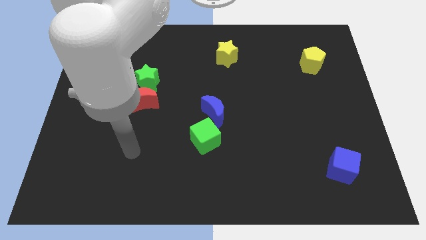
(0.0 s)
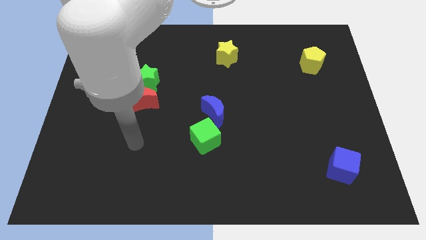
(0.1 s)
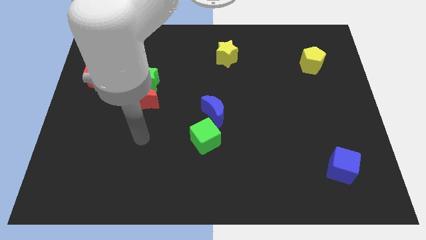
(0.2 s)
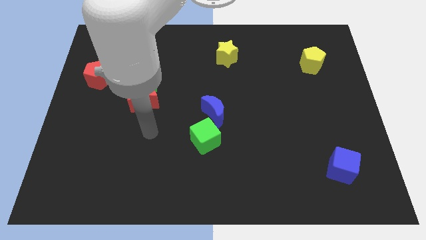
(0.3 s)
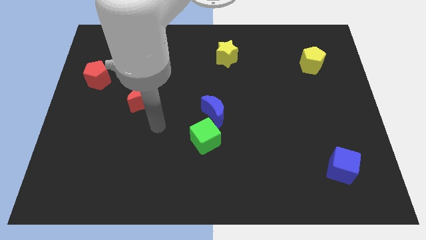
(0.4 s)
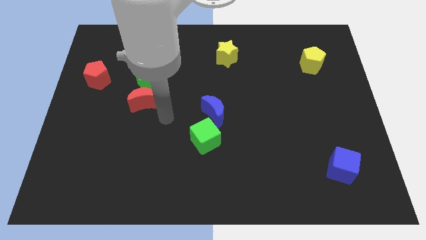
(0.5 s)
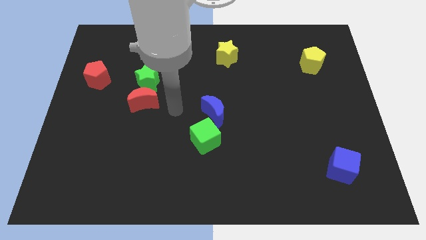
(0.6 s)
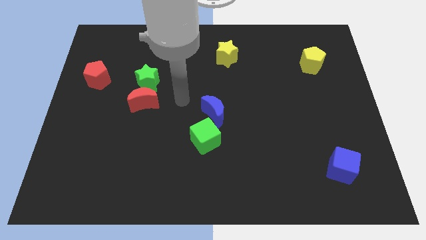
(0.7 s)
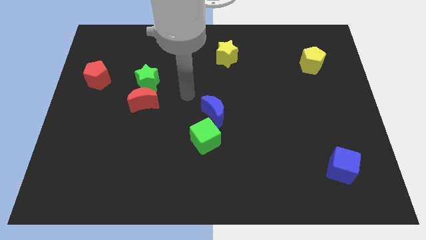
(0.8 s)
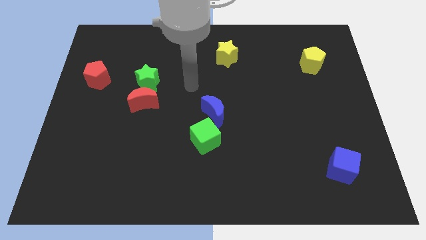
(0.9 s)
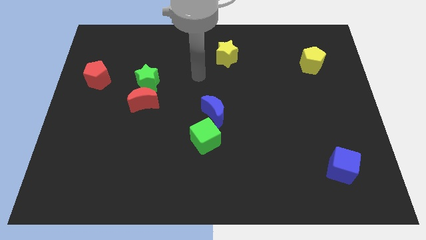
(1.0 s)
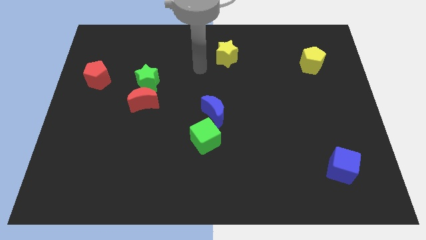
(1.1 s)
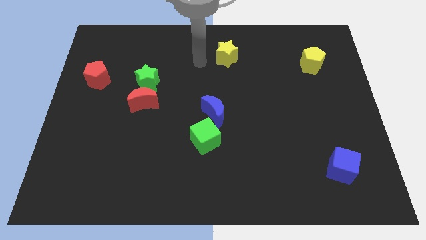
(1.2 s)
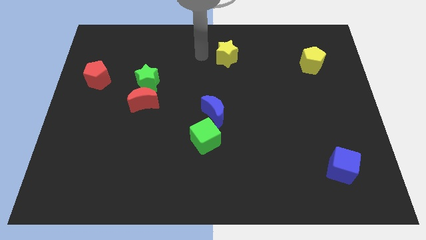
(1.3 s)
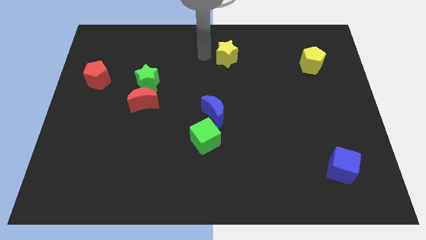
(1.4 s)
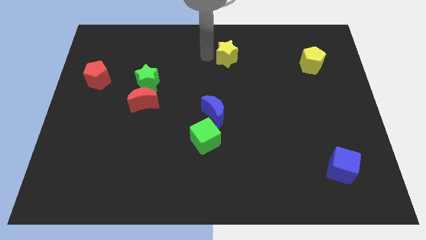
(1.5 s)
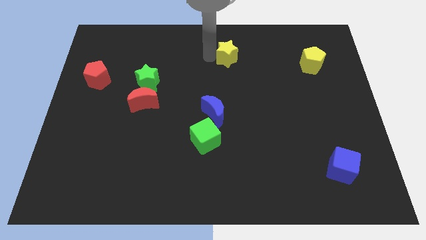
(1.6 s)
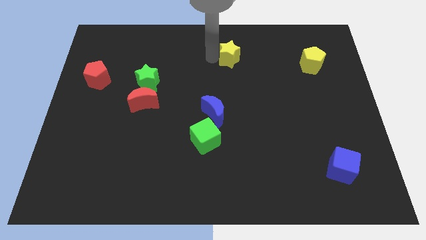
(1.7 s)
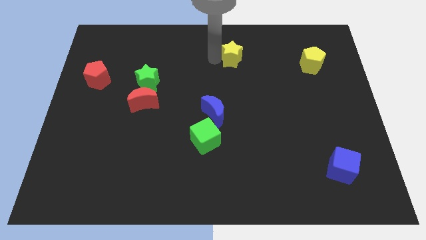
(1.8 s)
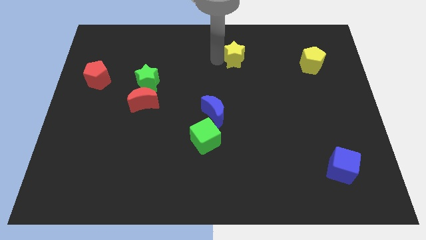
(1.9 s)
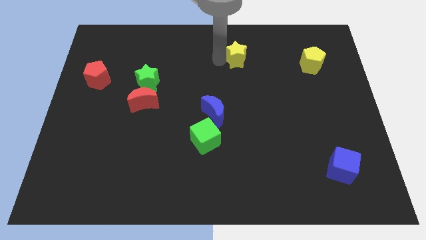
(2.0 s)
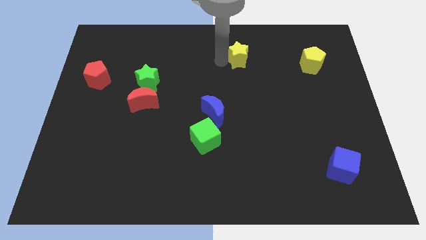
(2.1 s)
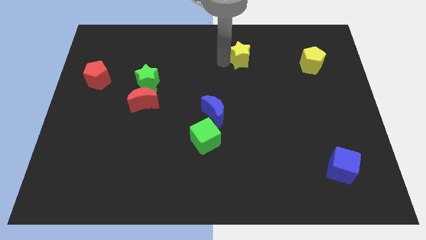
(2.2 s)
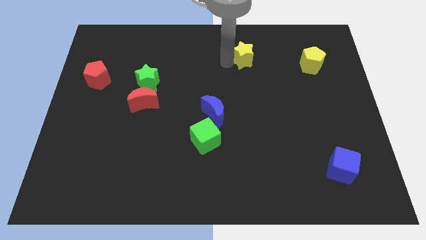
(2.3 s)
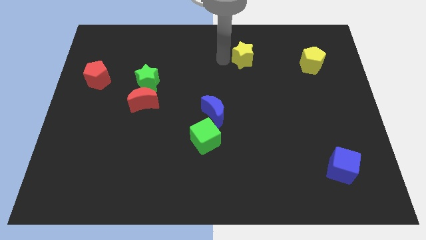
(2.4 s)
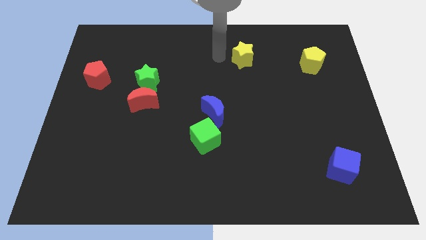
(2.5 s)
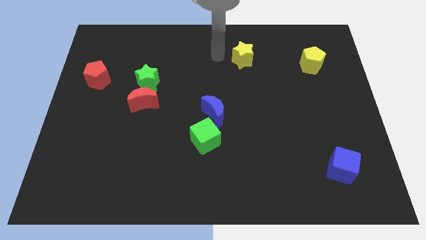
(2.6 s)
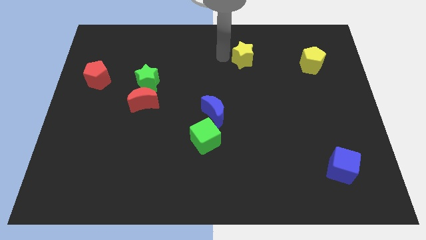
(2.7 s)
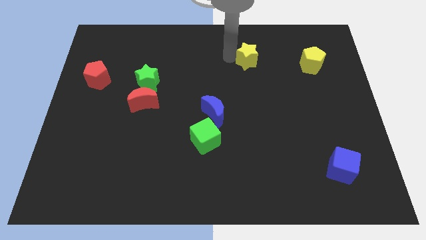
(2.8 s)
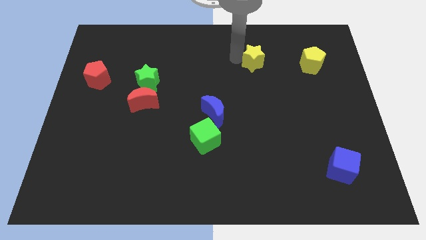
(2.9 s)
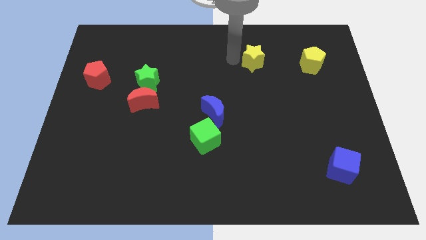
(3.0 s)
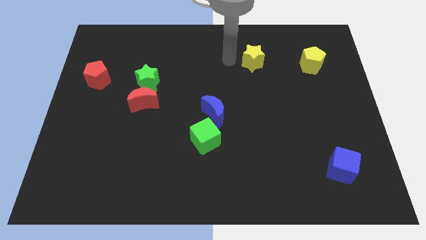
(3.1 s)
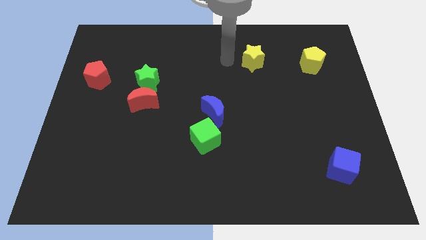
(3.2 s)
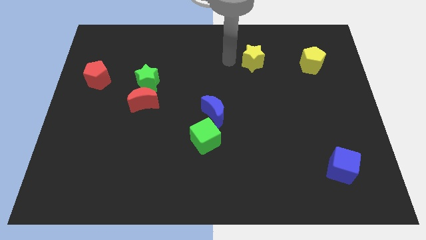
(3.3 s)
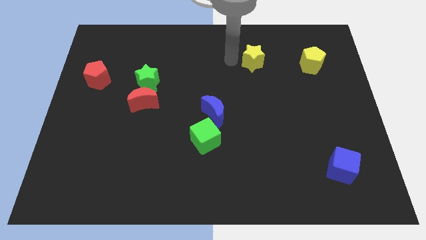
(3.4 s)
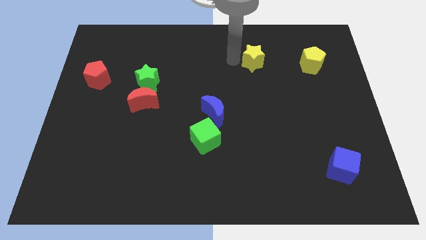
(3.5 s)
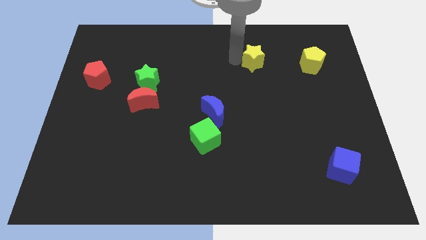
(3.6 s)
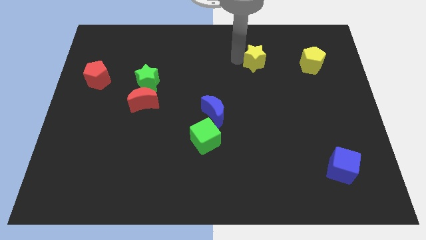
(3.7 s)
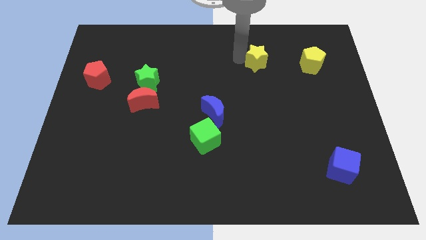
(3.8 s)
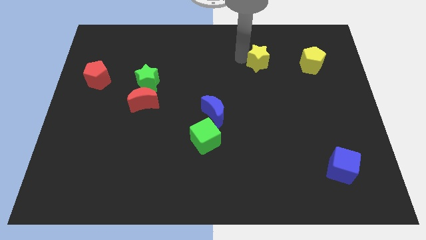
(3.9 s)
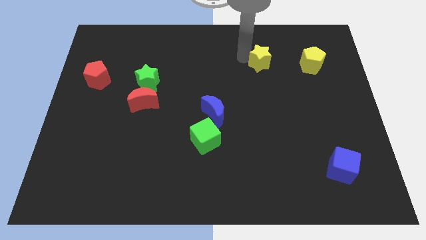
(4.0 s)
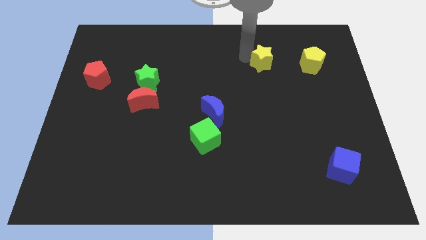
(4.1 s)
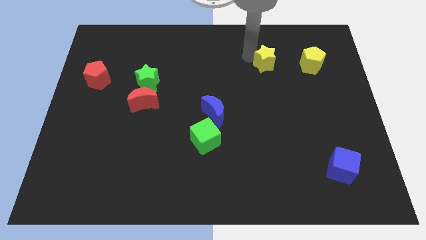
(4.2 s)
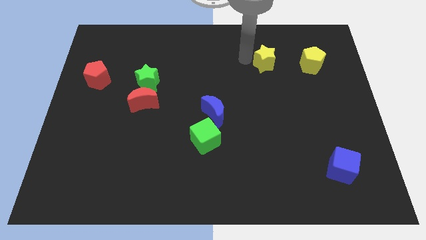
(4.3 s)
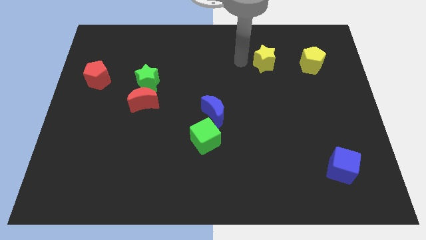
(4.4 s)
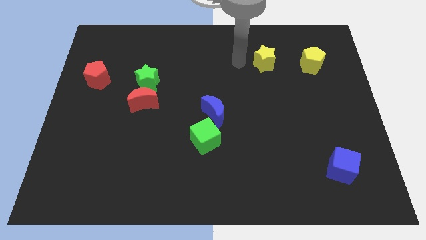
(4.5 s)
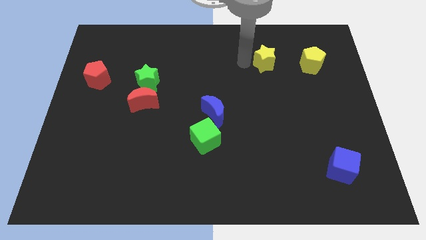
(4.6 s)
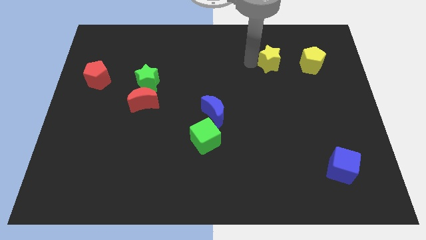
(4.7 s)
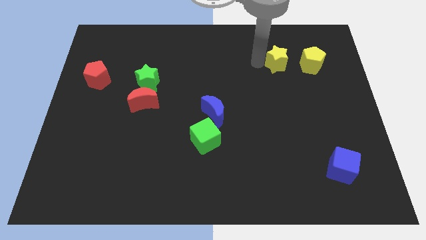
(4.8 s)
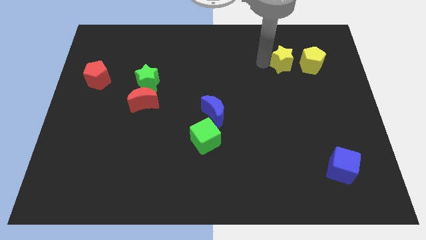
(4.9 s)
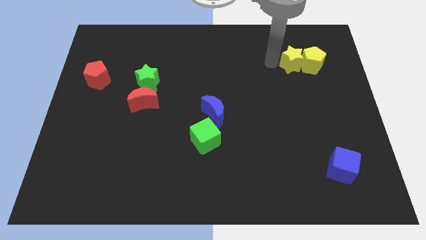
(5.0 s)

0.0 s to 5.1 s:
slide the yellow star towards the yellow pentagon

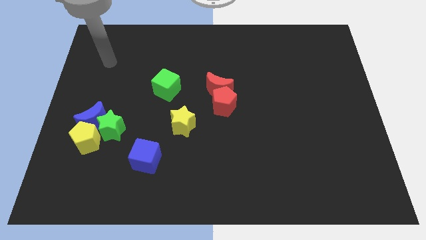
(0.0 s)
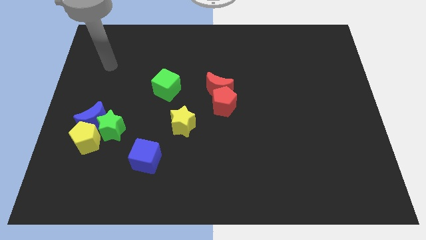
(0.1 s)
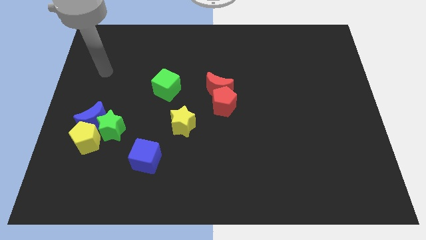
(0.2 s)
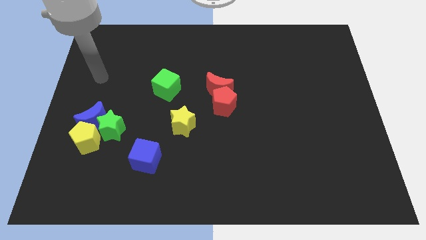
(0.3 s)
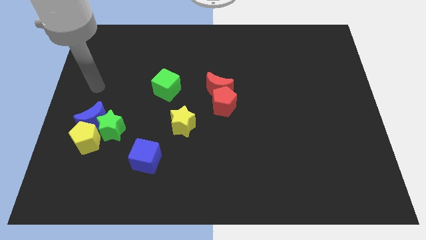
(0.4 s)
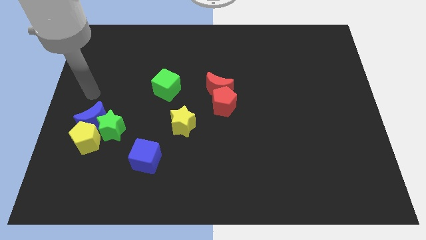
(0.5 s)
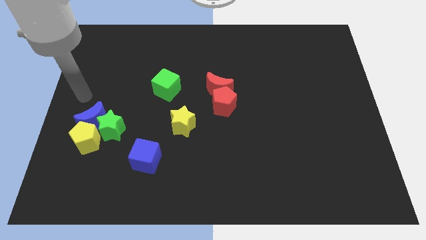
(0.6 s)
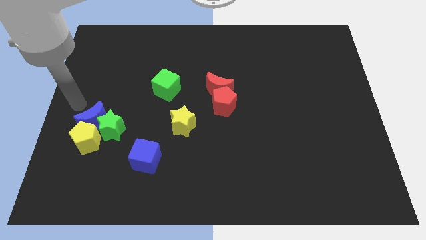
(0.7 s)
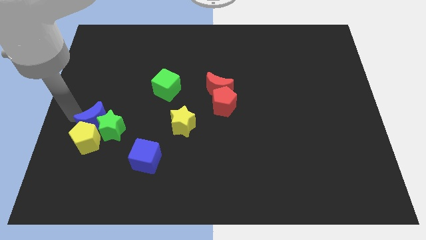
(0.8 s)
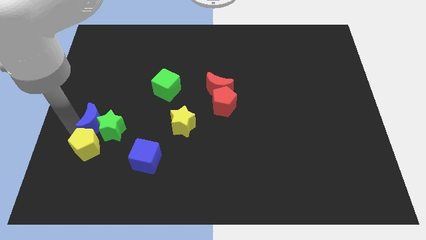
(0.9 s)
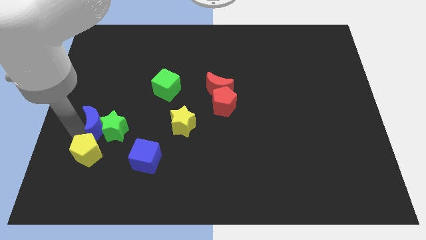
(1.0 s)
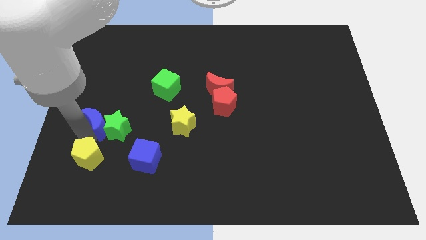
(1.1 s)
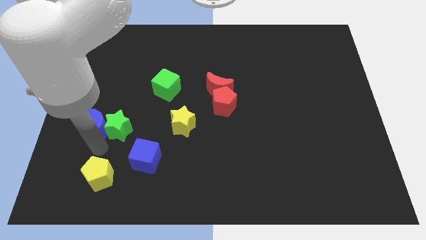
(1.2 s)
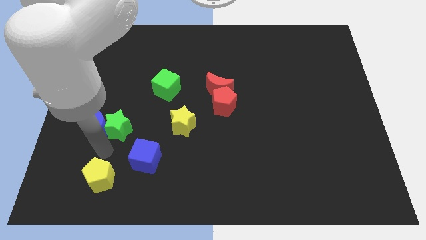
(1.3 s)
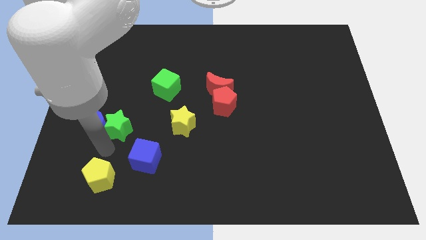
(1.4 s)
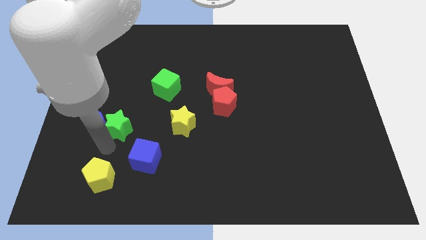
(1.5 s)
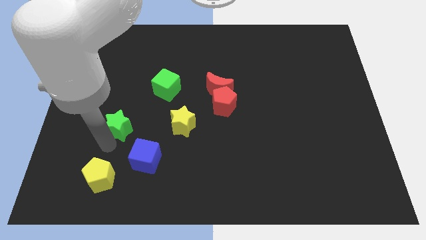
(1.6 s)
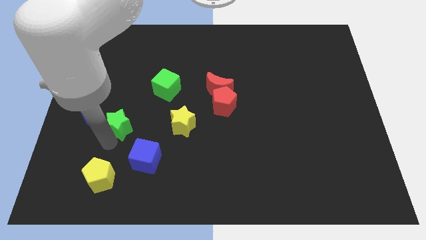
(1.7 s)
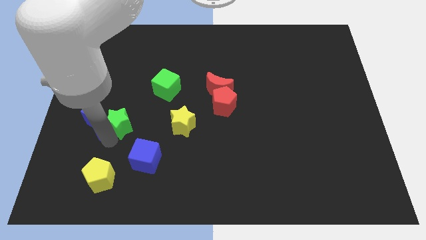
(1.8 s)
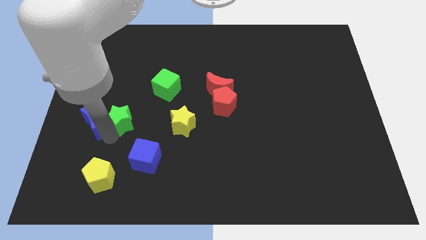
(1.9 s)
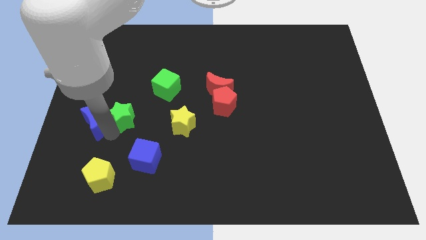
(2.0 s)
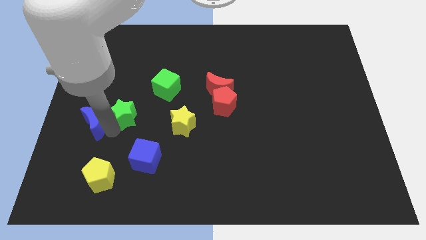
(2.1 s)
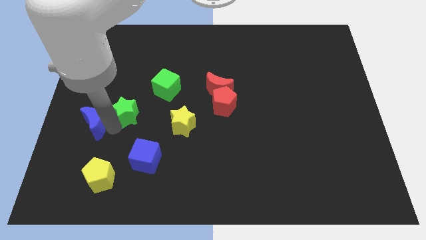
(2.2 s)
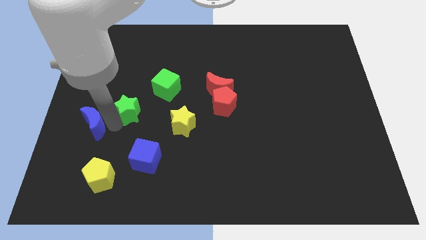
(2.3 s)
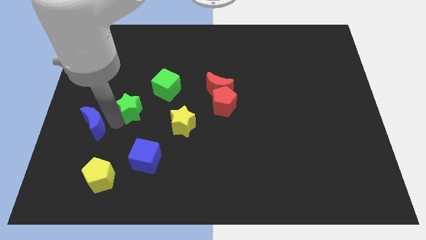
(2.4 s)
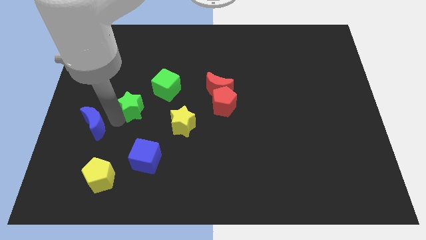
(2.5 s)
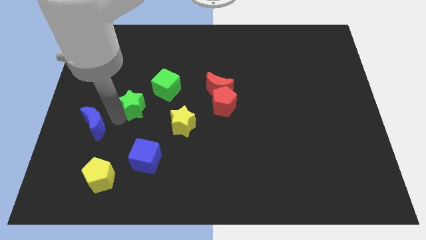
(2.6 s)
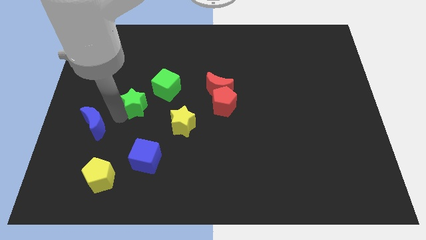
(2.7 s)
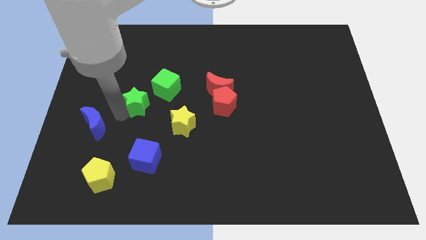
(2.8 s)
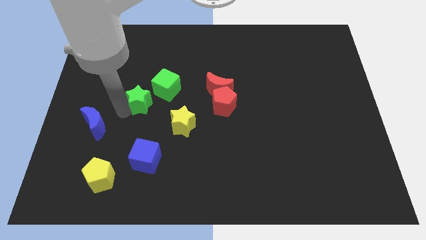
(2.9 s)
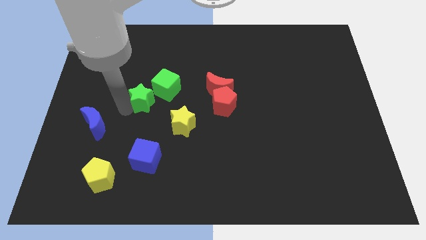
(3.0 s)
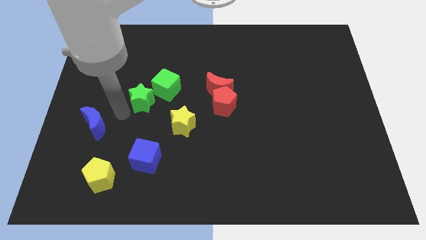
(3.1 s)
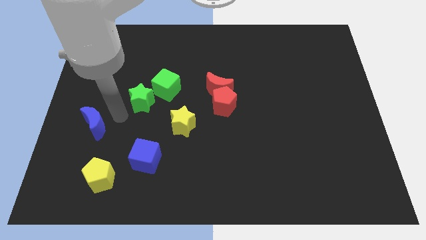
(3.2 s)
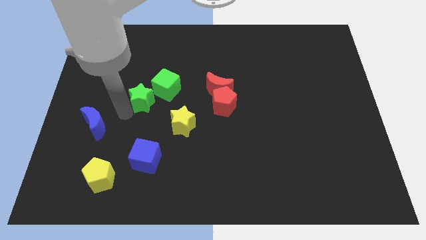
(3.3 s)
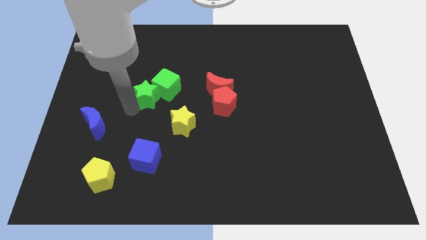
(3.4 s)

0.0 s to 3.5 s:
put the green star close to the green cube
